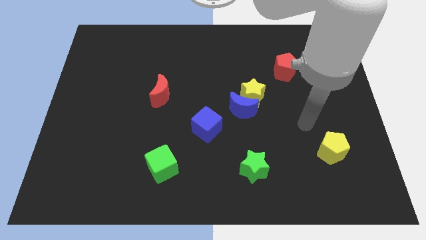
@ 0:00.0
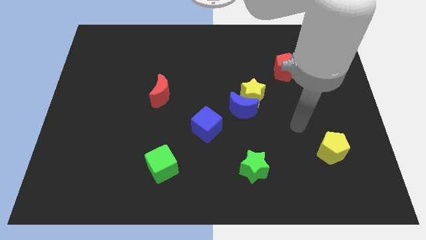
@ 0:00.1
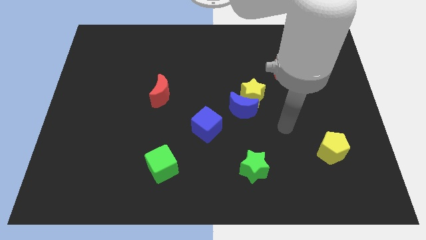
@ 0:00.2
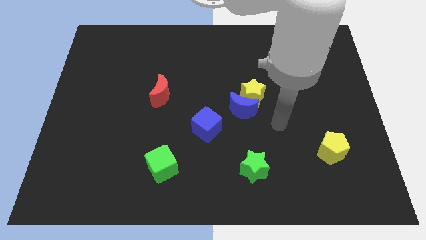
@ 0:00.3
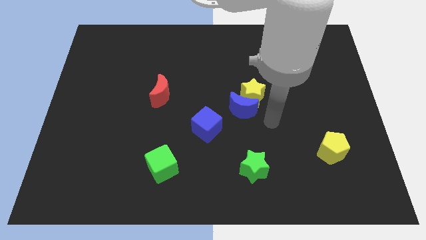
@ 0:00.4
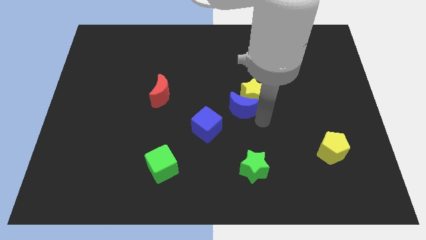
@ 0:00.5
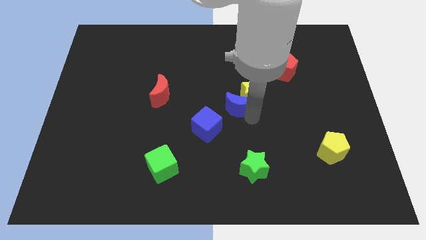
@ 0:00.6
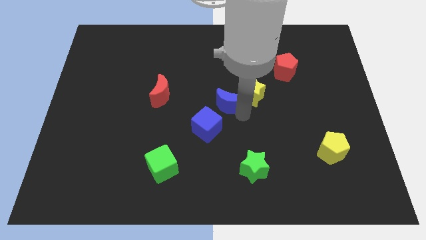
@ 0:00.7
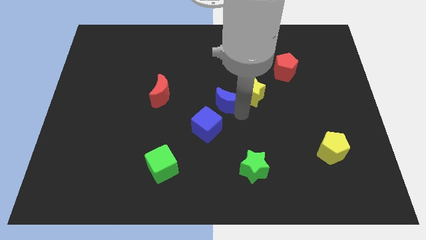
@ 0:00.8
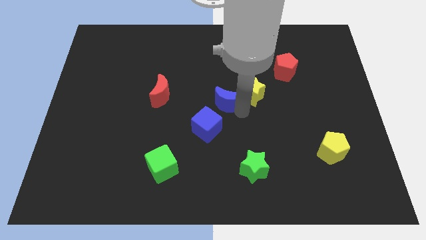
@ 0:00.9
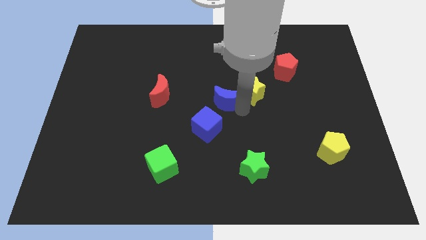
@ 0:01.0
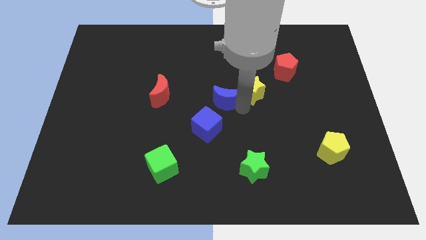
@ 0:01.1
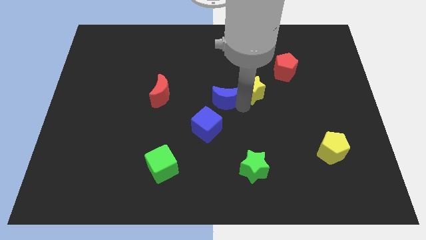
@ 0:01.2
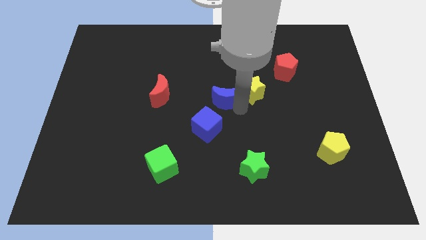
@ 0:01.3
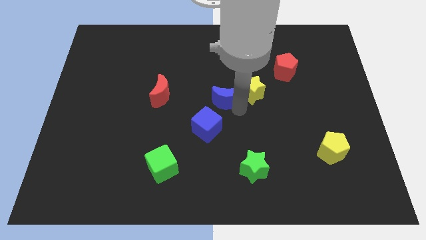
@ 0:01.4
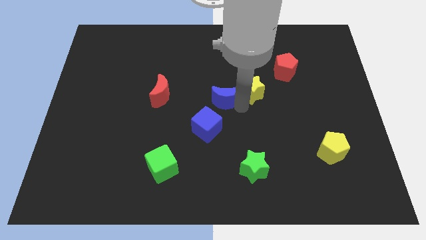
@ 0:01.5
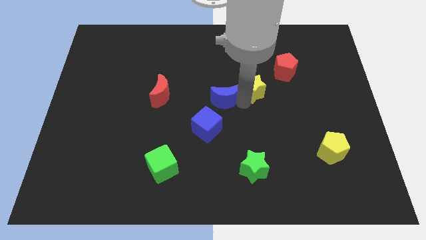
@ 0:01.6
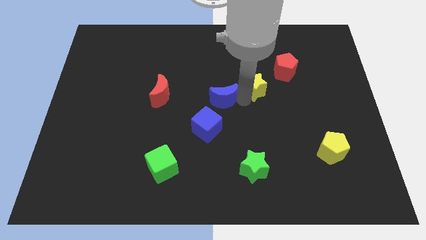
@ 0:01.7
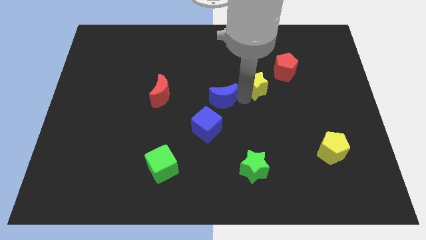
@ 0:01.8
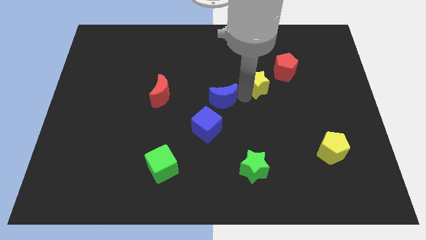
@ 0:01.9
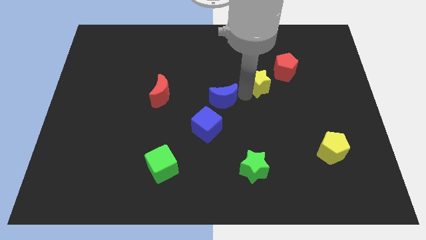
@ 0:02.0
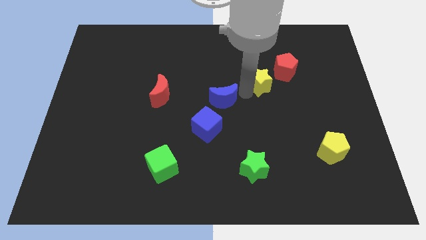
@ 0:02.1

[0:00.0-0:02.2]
pull the yellow star apart from the blue moon

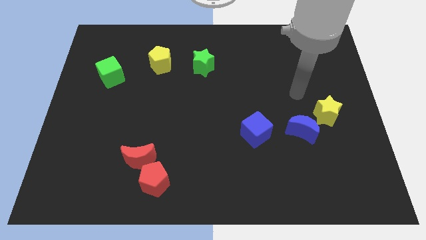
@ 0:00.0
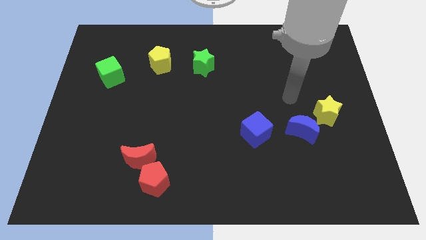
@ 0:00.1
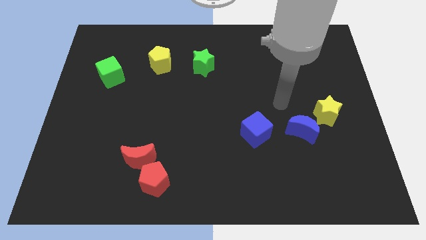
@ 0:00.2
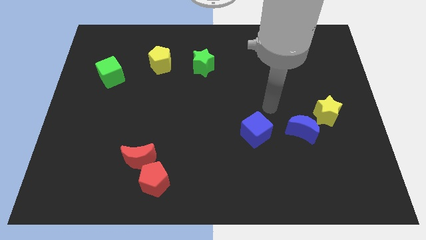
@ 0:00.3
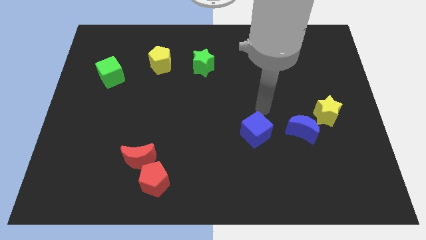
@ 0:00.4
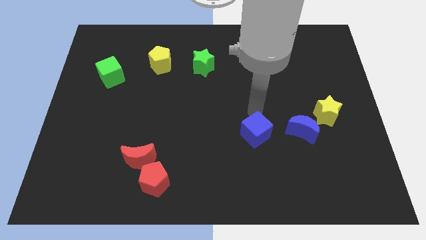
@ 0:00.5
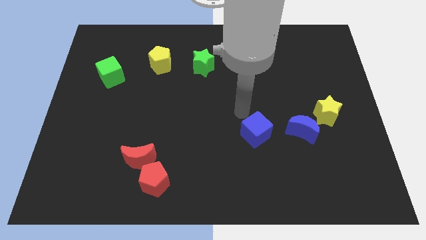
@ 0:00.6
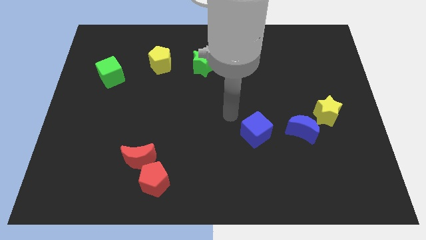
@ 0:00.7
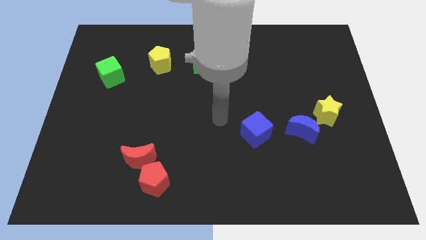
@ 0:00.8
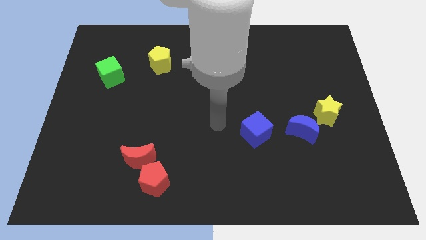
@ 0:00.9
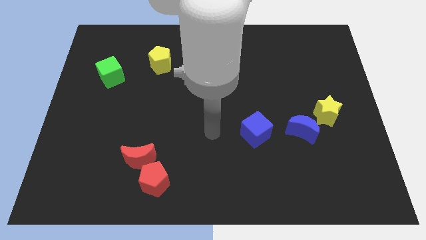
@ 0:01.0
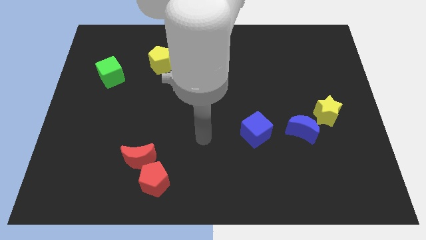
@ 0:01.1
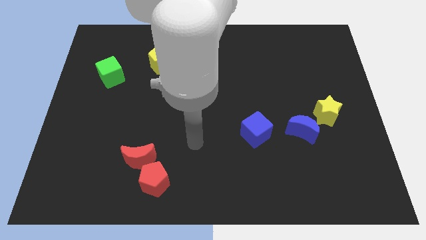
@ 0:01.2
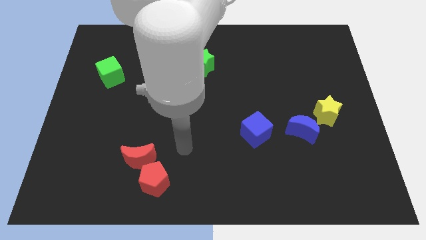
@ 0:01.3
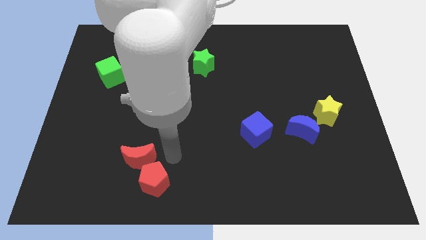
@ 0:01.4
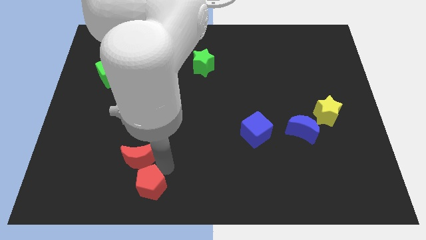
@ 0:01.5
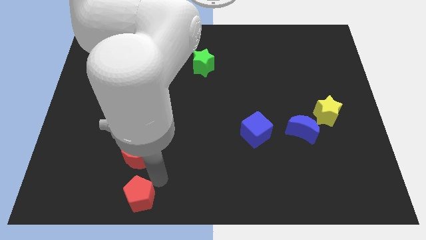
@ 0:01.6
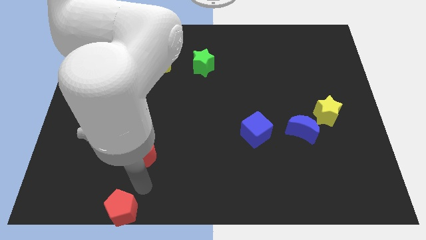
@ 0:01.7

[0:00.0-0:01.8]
separate the red moon from the red pentagon

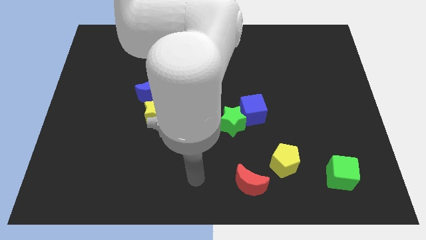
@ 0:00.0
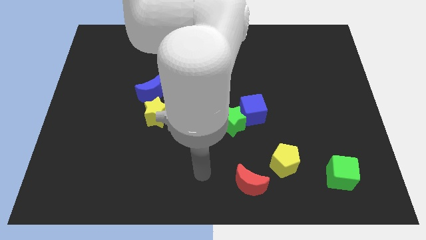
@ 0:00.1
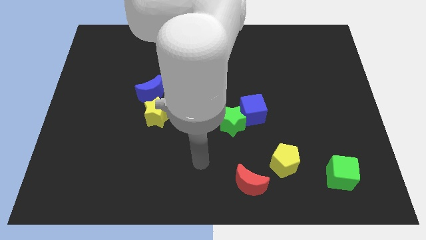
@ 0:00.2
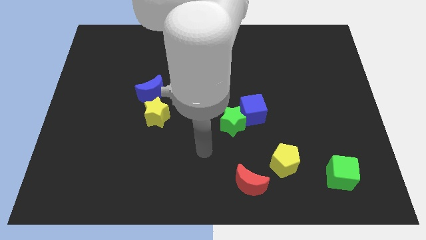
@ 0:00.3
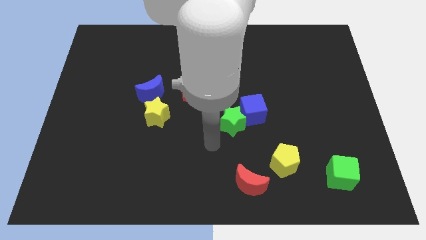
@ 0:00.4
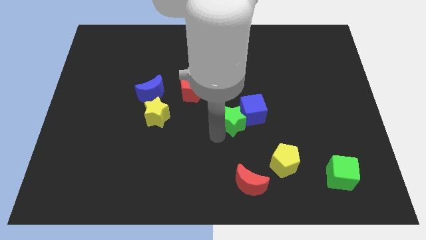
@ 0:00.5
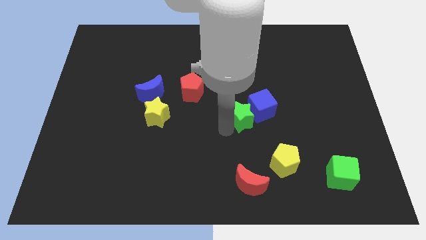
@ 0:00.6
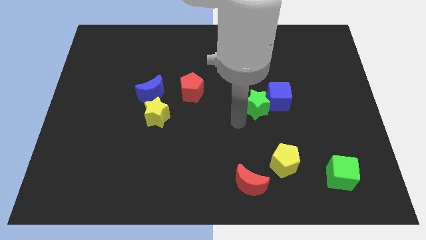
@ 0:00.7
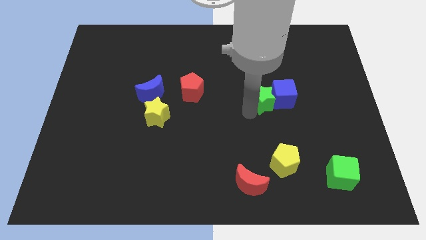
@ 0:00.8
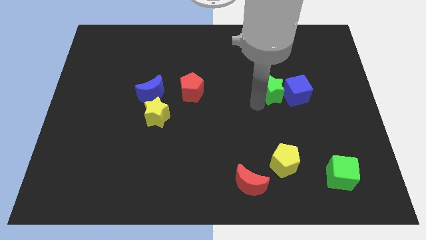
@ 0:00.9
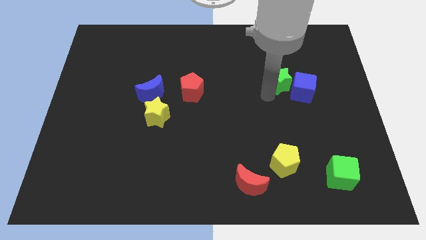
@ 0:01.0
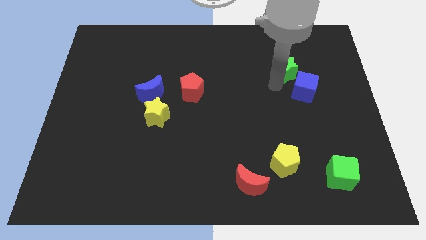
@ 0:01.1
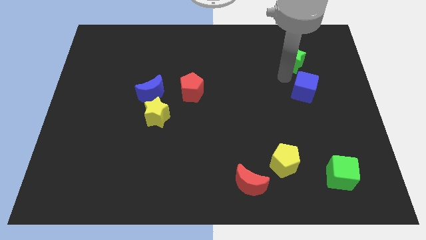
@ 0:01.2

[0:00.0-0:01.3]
separate the blue cube from the green star

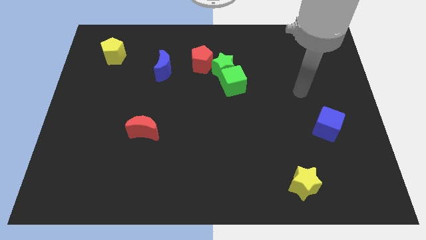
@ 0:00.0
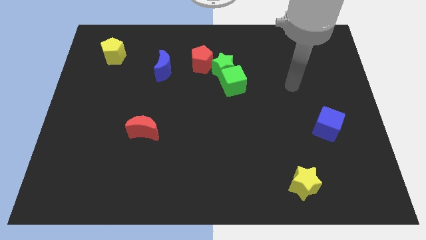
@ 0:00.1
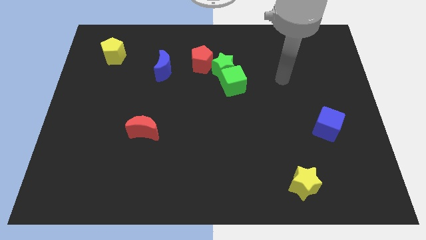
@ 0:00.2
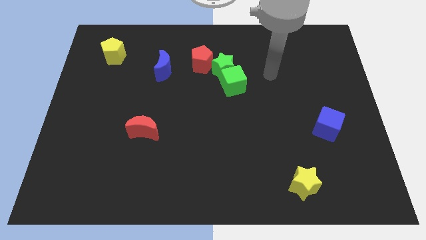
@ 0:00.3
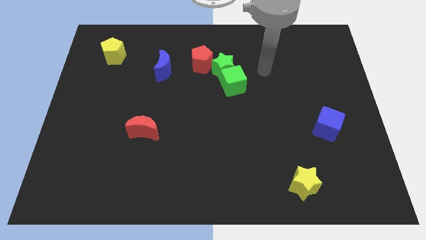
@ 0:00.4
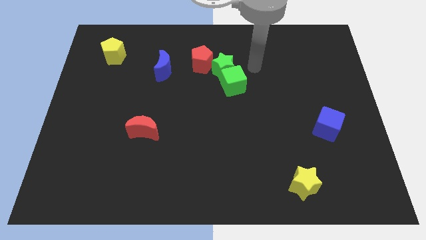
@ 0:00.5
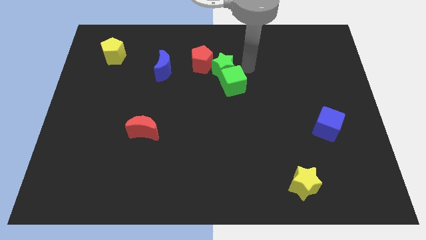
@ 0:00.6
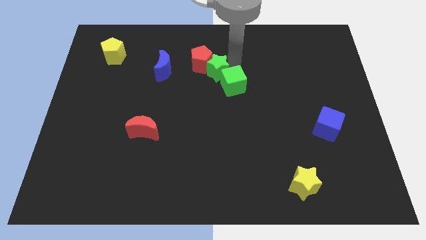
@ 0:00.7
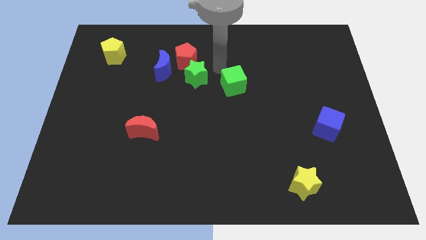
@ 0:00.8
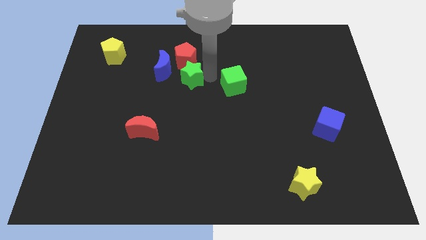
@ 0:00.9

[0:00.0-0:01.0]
pull the green cube apart from the green star

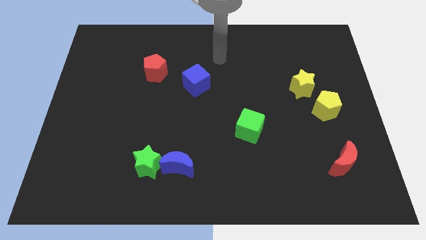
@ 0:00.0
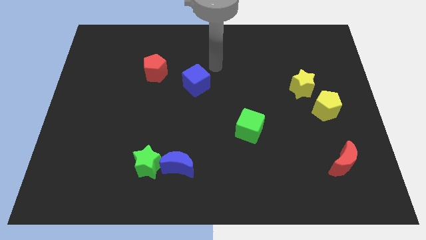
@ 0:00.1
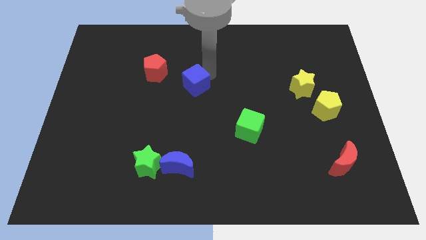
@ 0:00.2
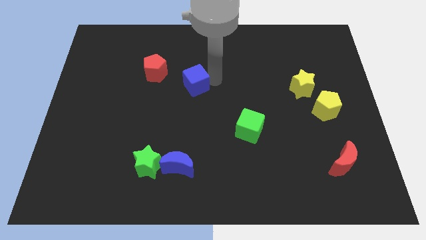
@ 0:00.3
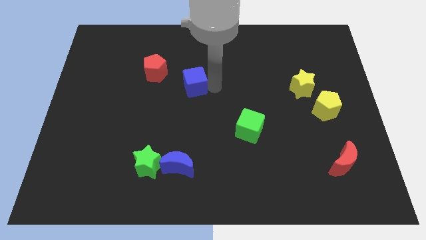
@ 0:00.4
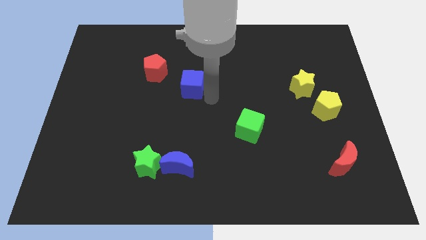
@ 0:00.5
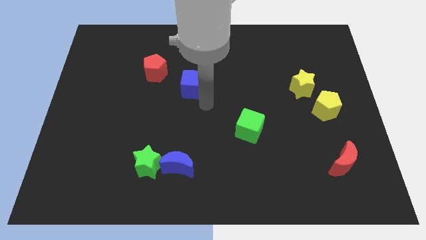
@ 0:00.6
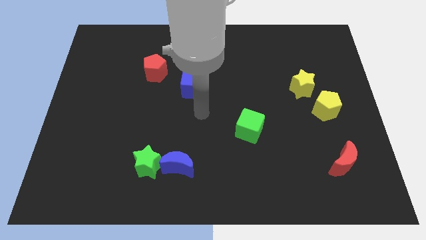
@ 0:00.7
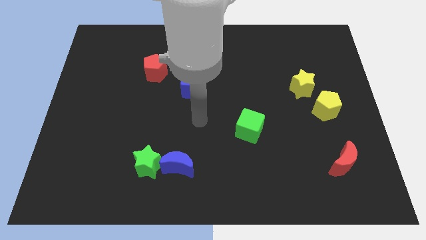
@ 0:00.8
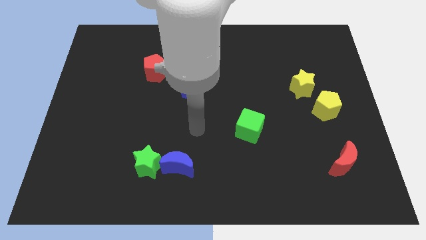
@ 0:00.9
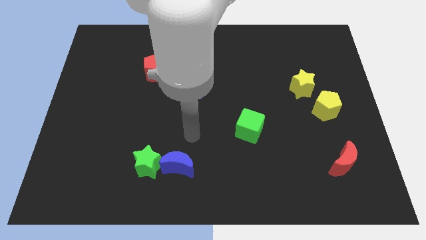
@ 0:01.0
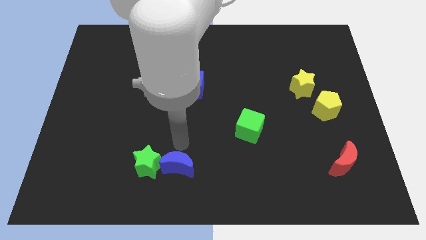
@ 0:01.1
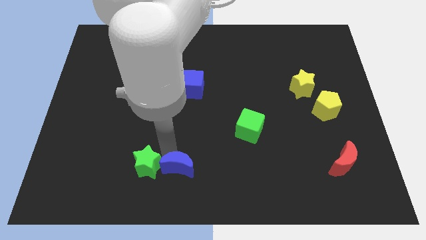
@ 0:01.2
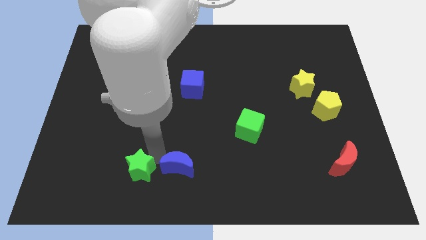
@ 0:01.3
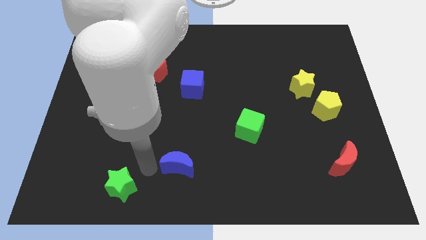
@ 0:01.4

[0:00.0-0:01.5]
pull the blue moon apart from the green star

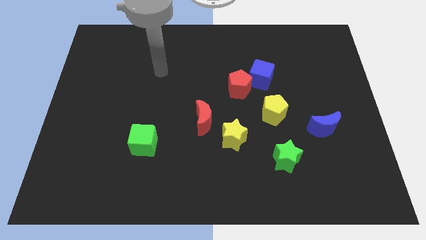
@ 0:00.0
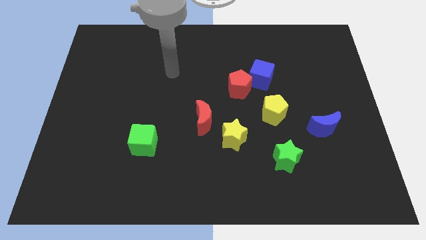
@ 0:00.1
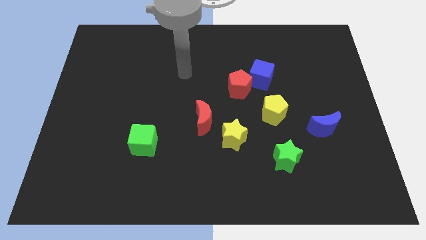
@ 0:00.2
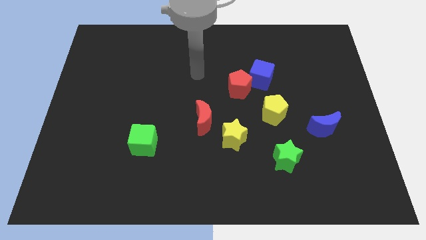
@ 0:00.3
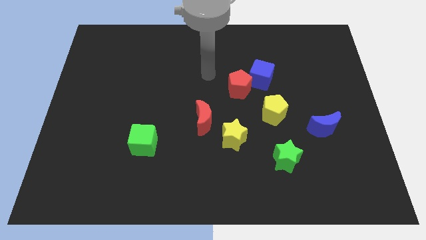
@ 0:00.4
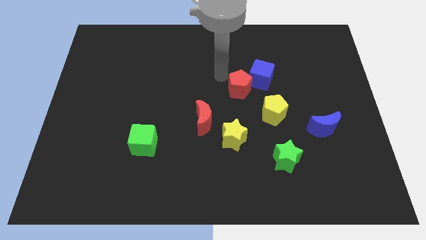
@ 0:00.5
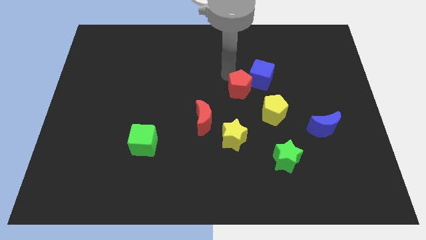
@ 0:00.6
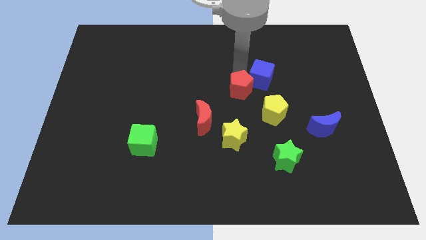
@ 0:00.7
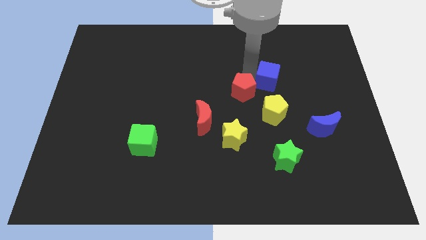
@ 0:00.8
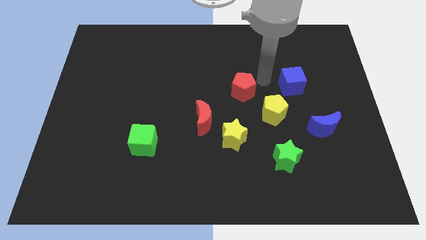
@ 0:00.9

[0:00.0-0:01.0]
pull the red pentagon apart from the blue cube

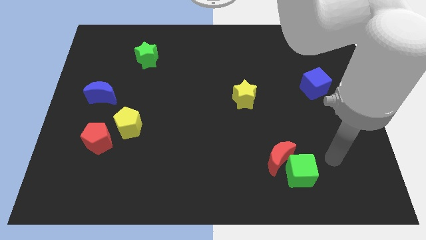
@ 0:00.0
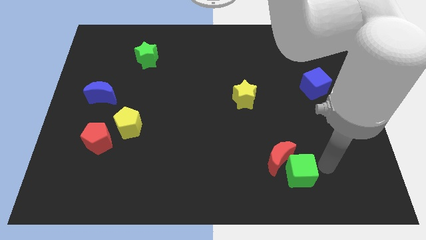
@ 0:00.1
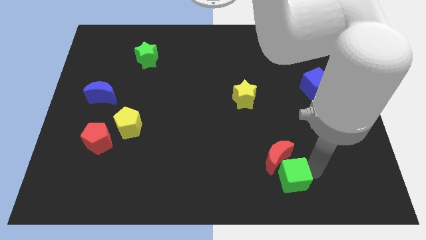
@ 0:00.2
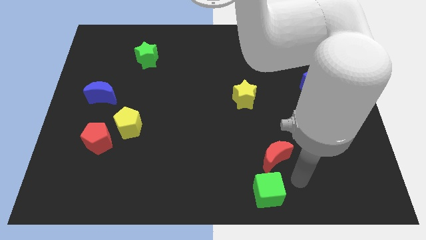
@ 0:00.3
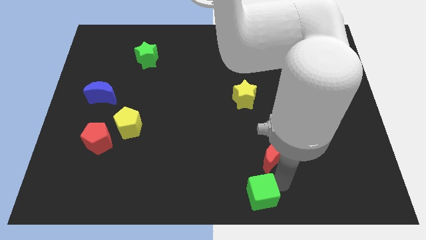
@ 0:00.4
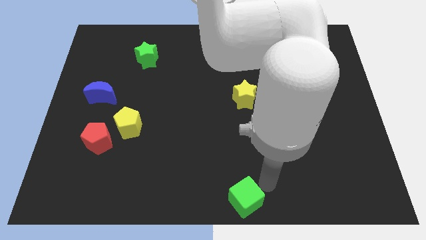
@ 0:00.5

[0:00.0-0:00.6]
move the red moon away from the green cube
